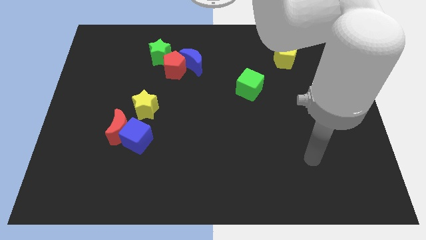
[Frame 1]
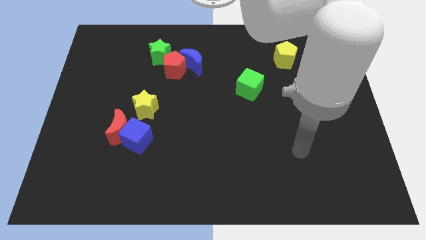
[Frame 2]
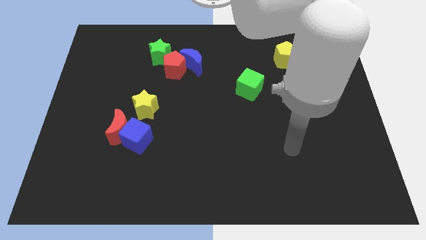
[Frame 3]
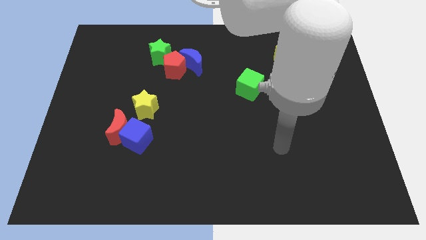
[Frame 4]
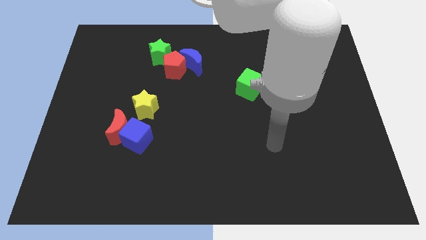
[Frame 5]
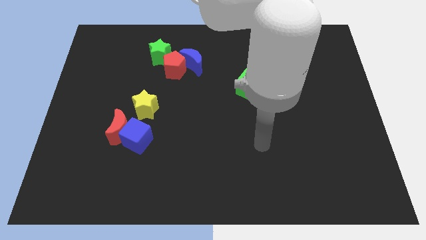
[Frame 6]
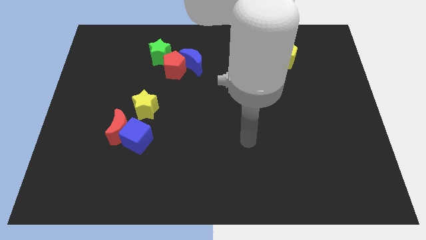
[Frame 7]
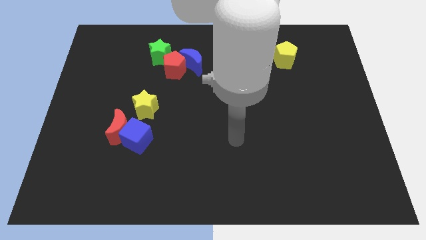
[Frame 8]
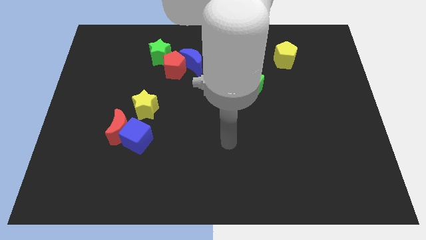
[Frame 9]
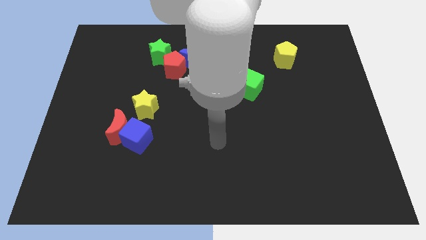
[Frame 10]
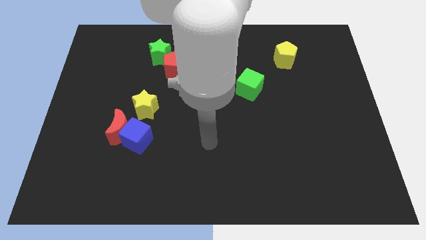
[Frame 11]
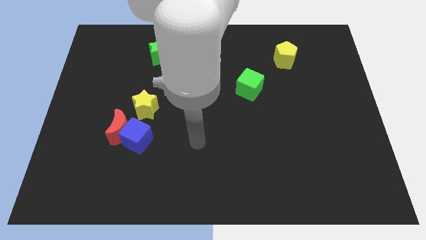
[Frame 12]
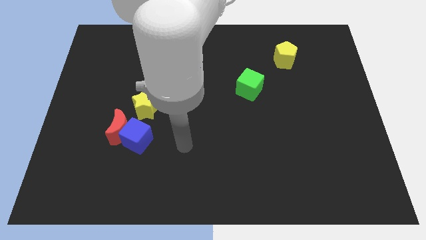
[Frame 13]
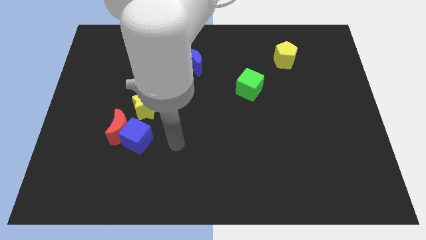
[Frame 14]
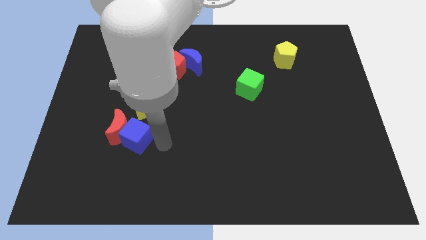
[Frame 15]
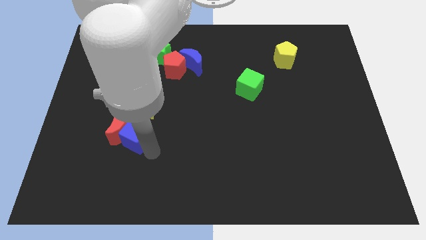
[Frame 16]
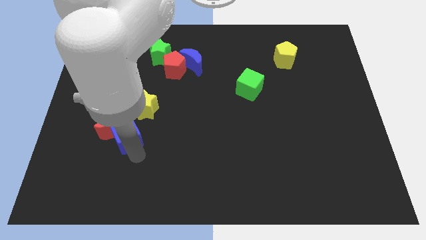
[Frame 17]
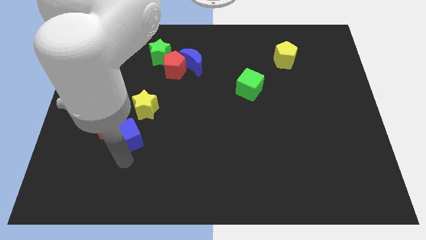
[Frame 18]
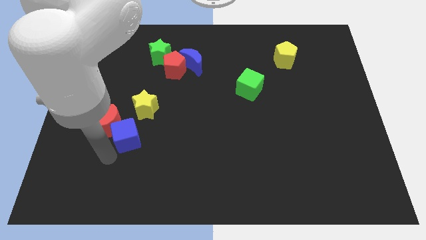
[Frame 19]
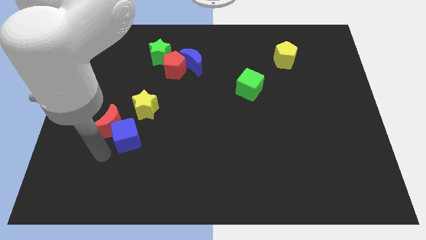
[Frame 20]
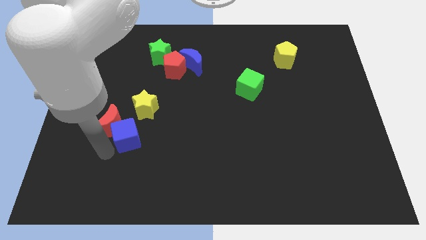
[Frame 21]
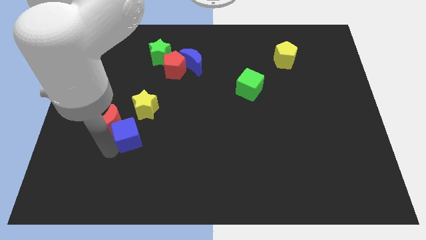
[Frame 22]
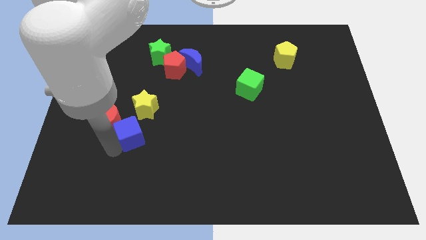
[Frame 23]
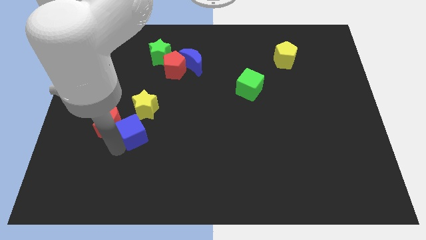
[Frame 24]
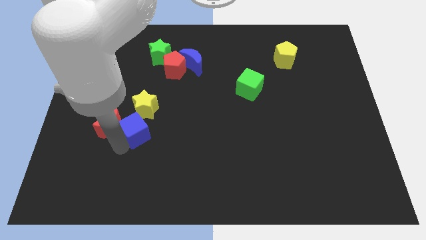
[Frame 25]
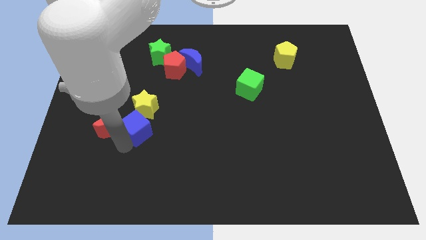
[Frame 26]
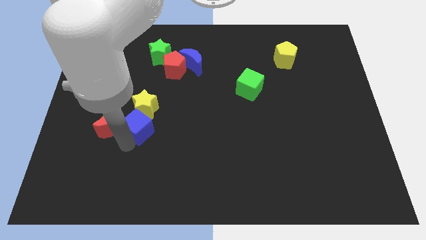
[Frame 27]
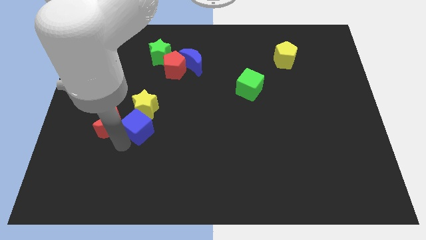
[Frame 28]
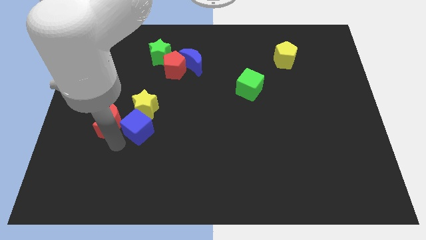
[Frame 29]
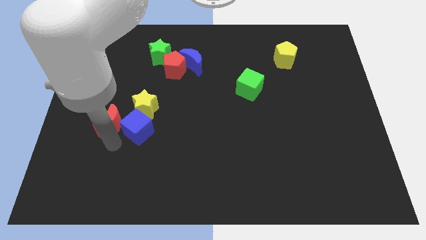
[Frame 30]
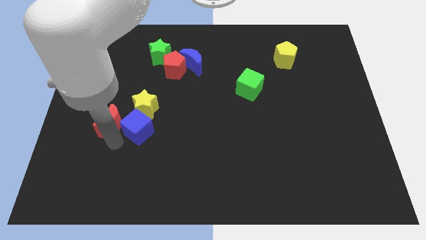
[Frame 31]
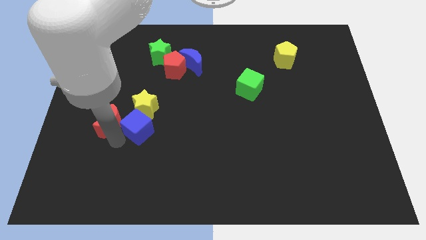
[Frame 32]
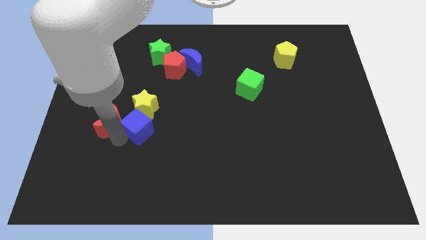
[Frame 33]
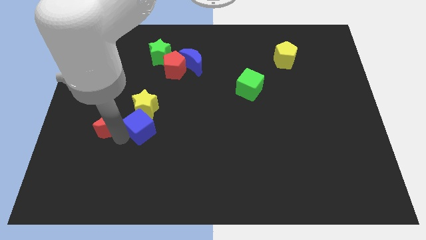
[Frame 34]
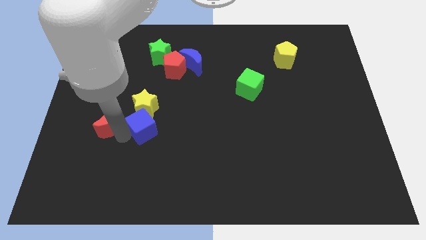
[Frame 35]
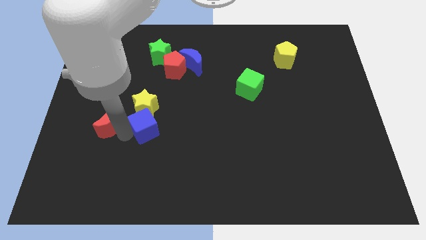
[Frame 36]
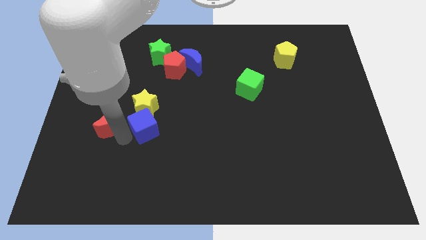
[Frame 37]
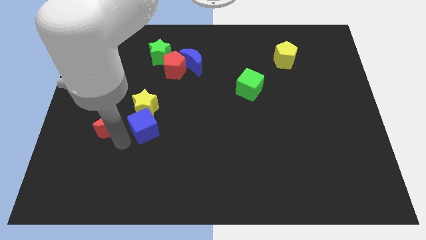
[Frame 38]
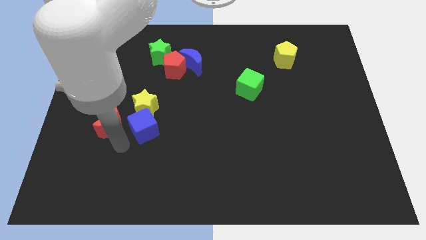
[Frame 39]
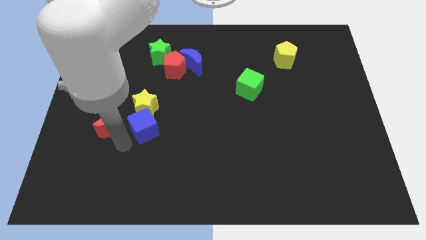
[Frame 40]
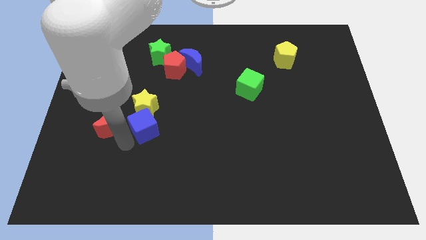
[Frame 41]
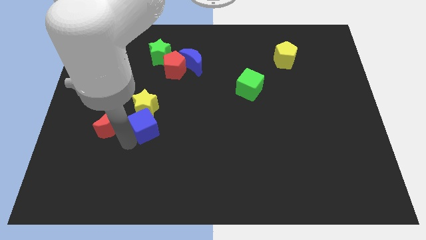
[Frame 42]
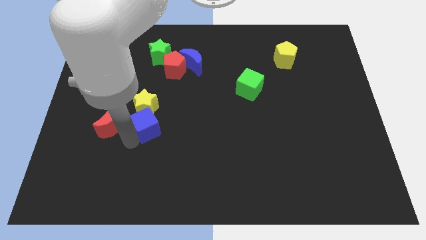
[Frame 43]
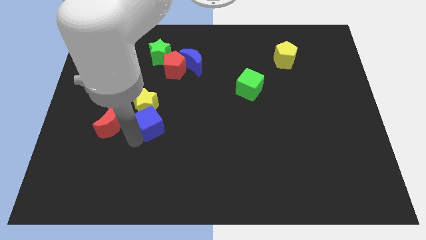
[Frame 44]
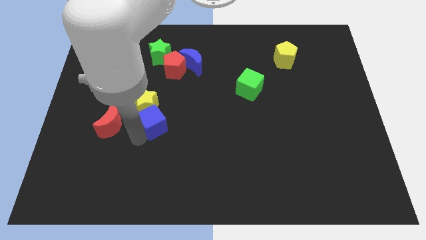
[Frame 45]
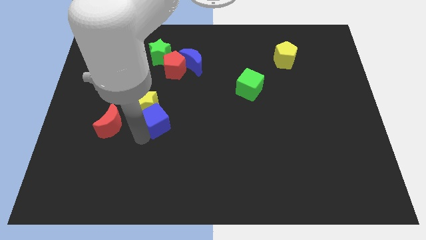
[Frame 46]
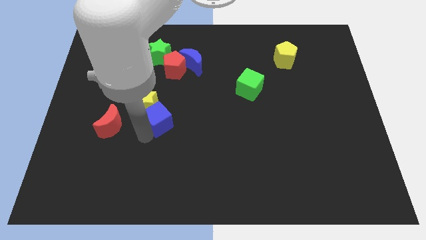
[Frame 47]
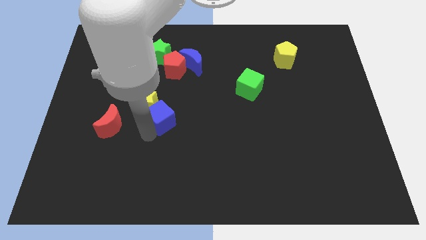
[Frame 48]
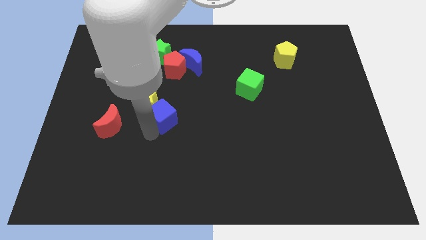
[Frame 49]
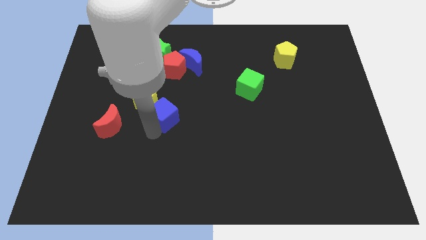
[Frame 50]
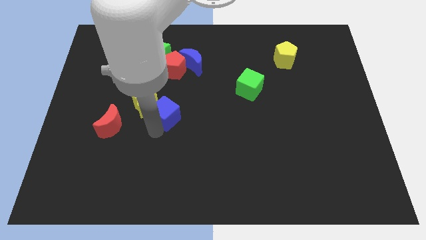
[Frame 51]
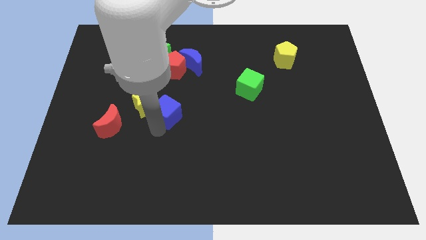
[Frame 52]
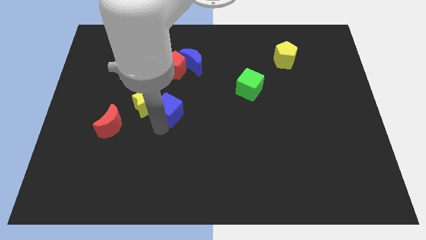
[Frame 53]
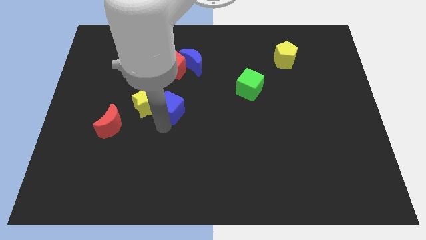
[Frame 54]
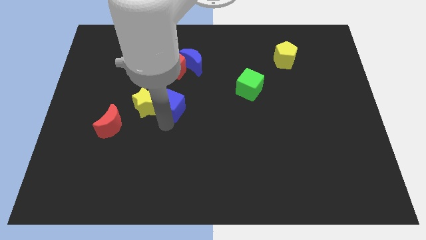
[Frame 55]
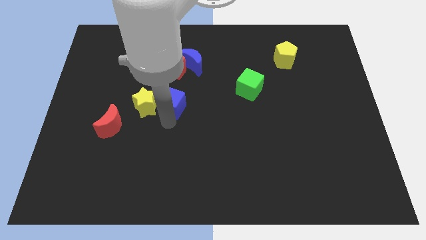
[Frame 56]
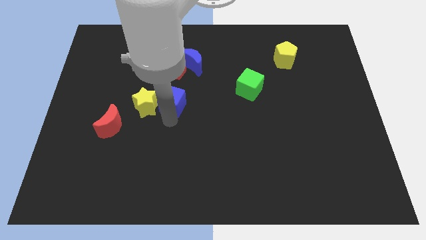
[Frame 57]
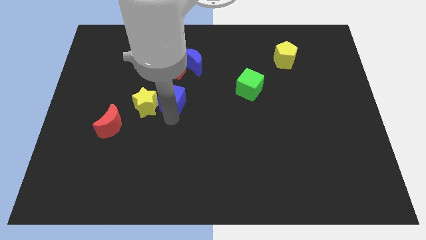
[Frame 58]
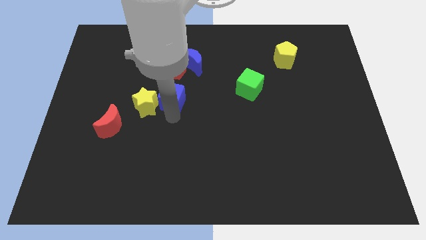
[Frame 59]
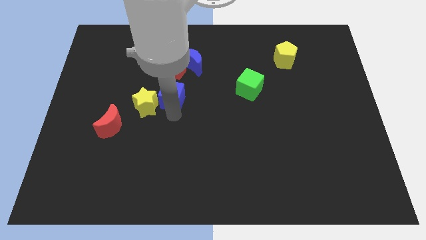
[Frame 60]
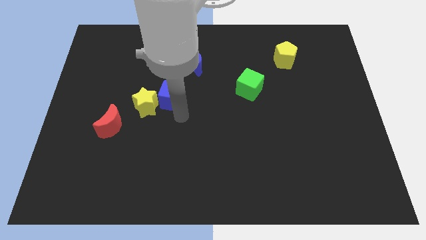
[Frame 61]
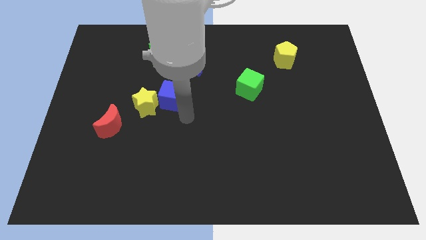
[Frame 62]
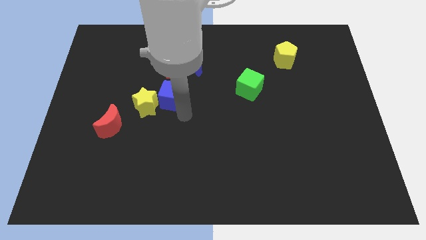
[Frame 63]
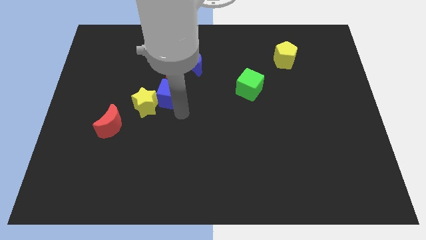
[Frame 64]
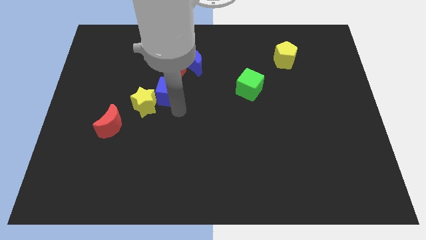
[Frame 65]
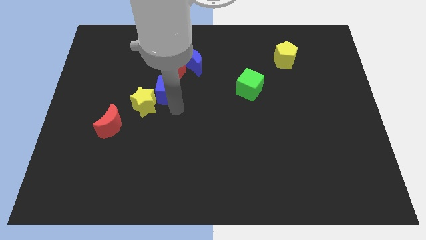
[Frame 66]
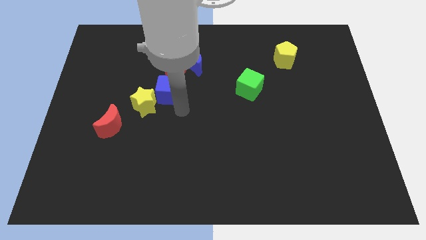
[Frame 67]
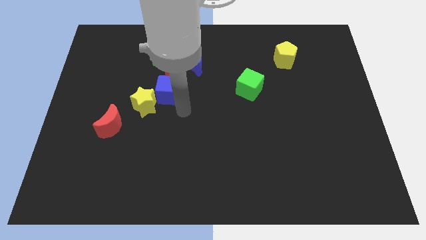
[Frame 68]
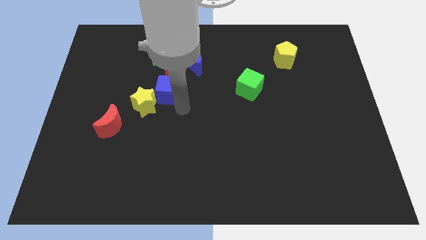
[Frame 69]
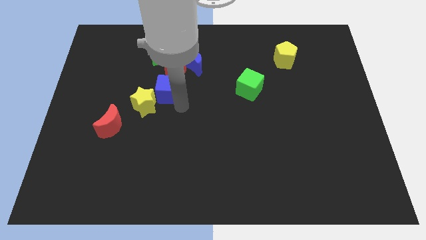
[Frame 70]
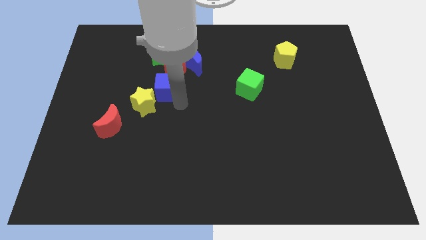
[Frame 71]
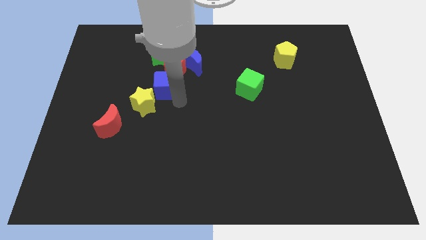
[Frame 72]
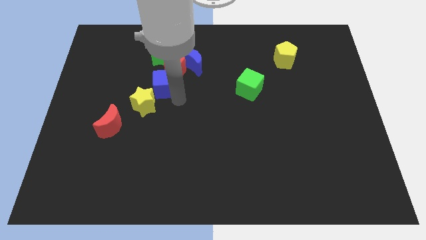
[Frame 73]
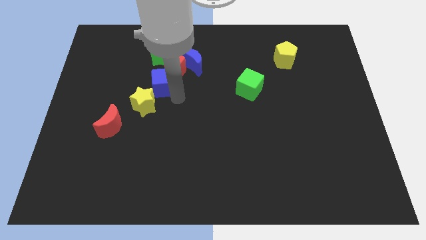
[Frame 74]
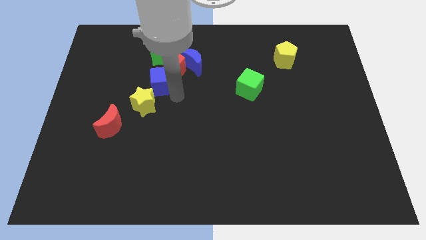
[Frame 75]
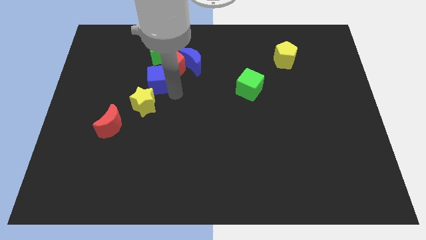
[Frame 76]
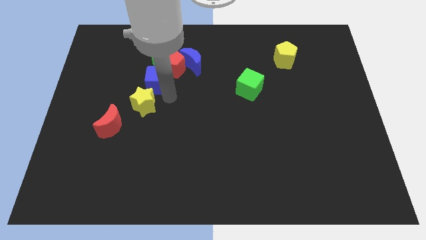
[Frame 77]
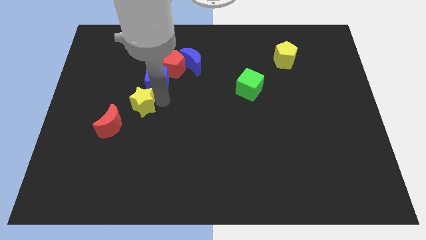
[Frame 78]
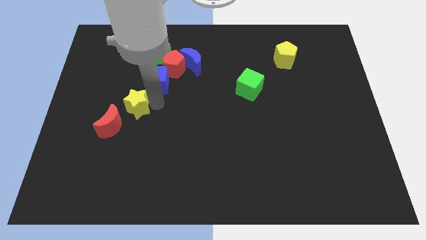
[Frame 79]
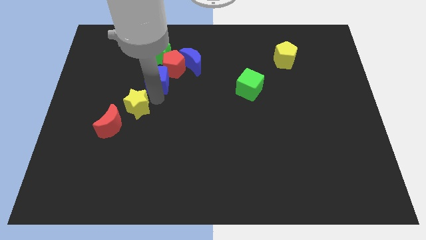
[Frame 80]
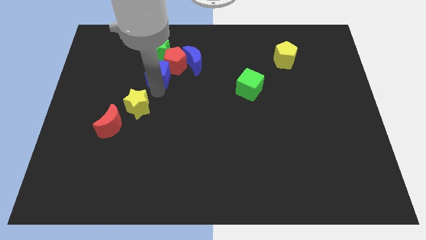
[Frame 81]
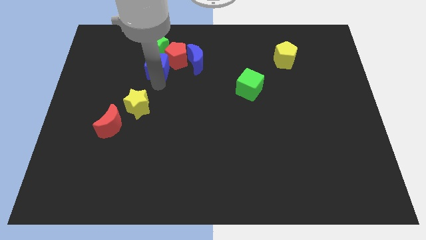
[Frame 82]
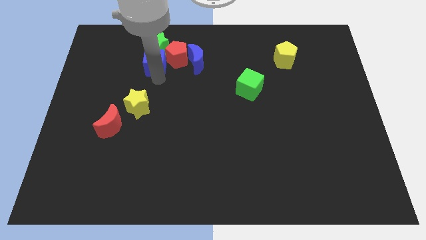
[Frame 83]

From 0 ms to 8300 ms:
slide the blue cube next to the green star
